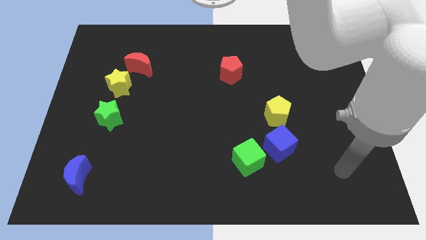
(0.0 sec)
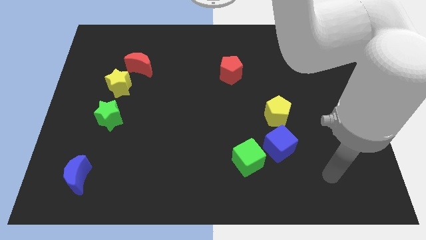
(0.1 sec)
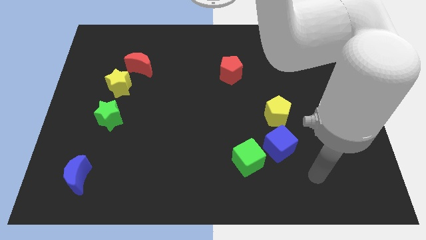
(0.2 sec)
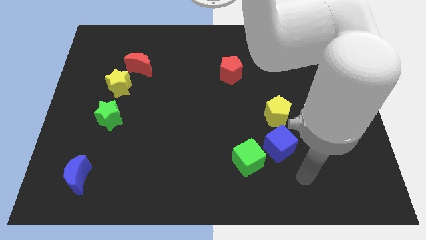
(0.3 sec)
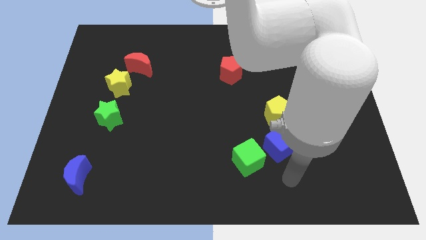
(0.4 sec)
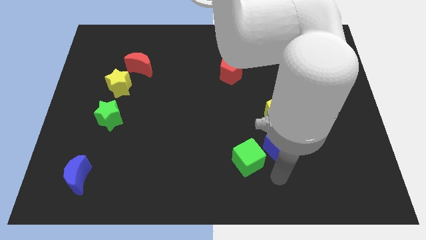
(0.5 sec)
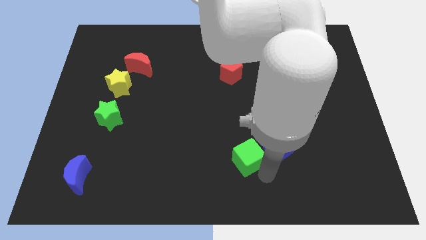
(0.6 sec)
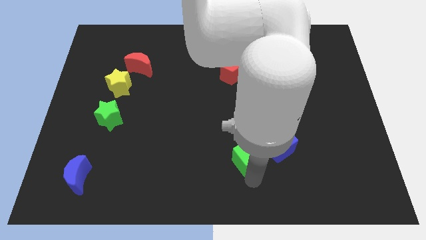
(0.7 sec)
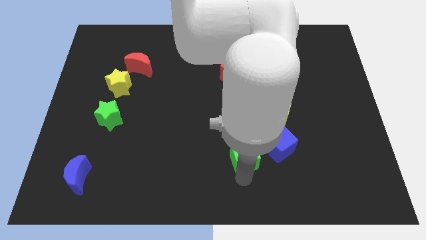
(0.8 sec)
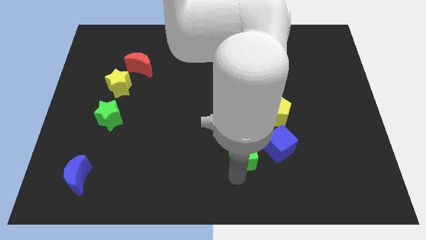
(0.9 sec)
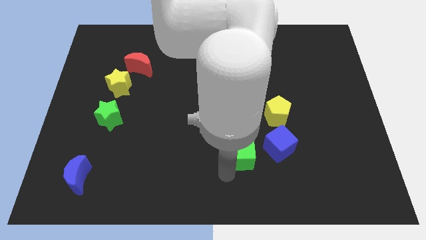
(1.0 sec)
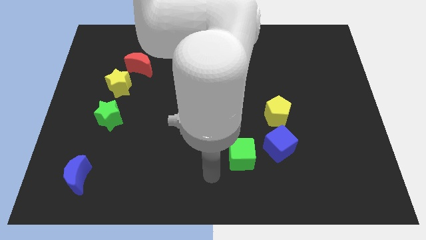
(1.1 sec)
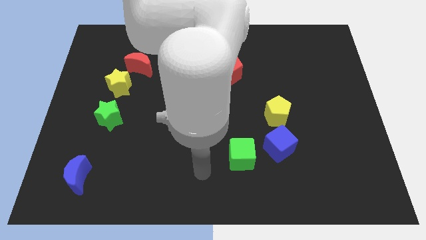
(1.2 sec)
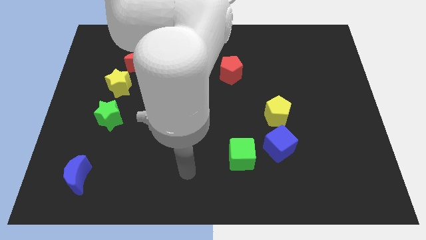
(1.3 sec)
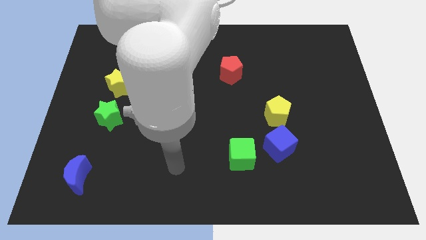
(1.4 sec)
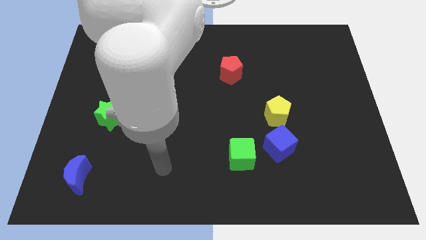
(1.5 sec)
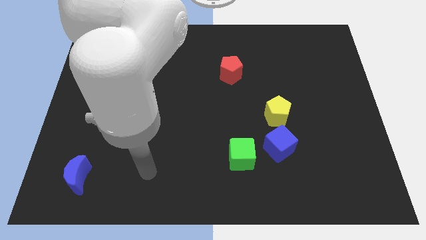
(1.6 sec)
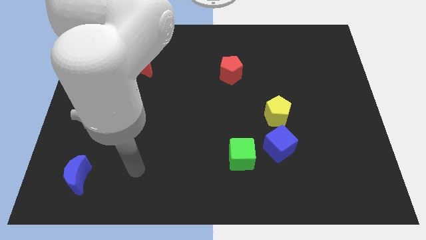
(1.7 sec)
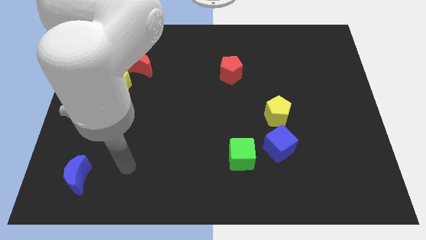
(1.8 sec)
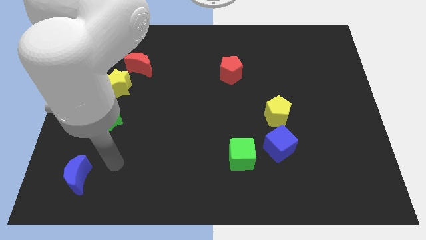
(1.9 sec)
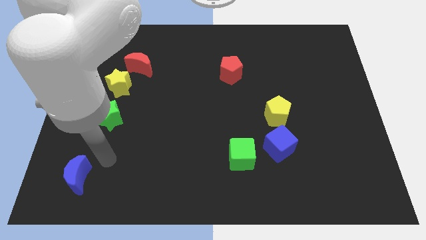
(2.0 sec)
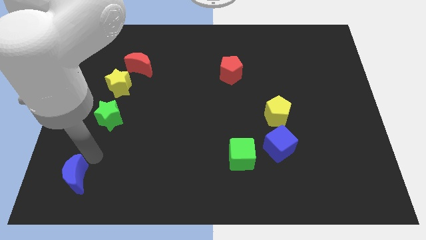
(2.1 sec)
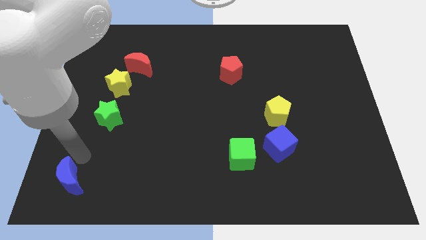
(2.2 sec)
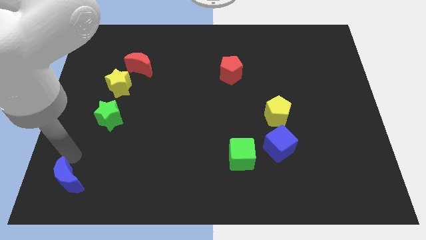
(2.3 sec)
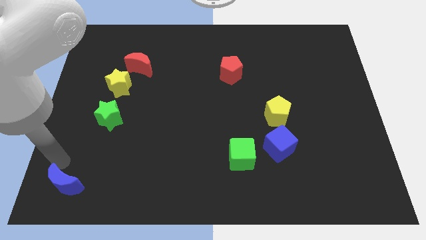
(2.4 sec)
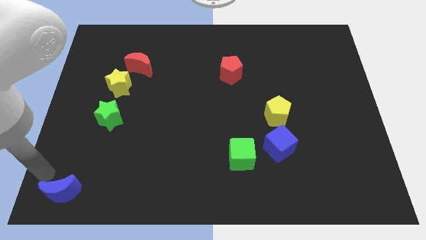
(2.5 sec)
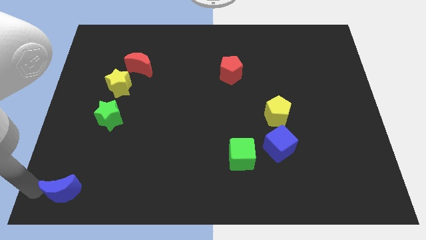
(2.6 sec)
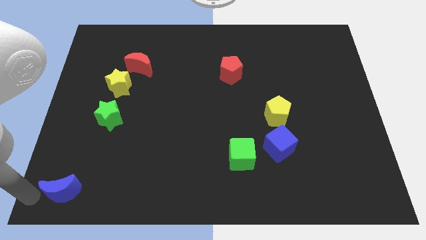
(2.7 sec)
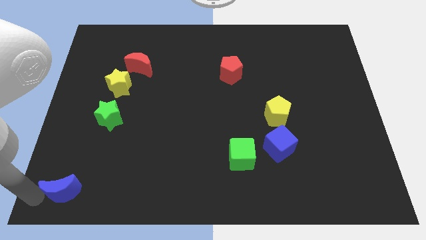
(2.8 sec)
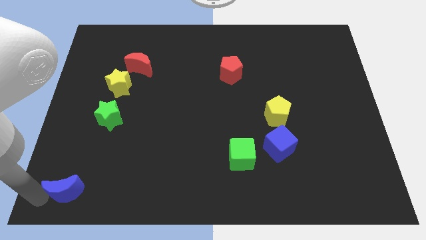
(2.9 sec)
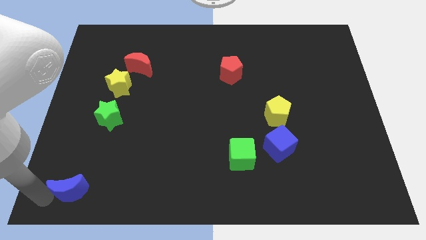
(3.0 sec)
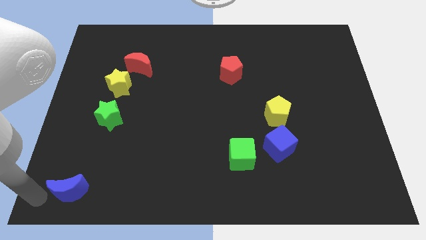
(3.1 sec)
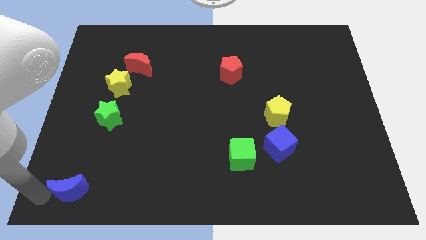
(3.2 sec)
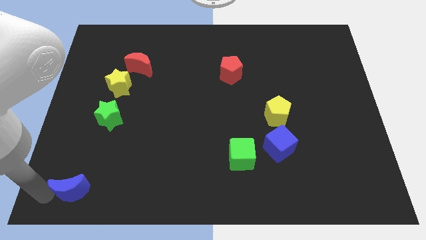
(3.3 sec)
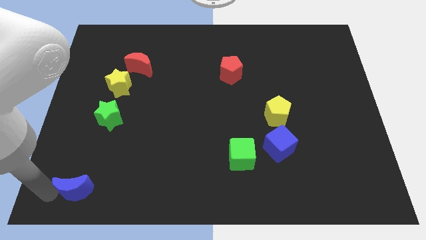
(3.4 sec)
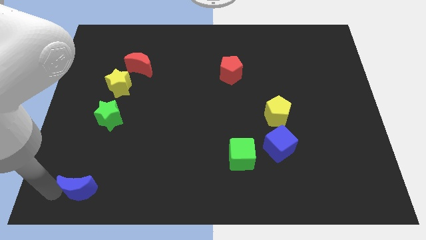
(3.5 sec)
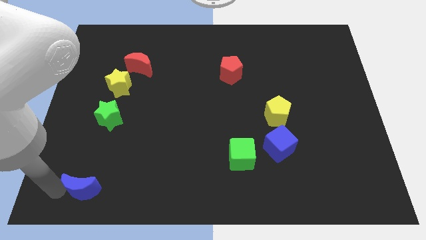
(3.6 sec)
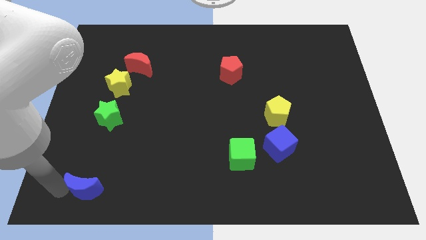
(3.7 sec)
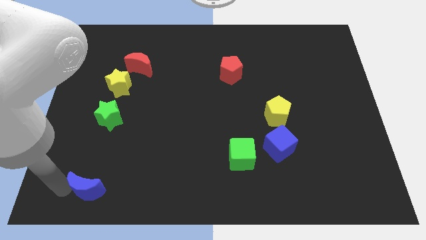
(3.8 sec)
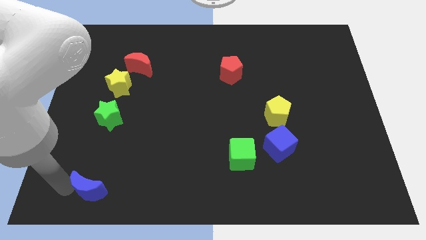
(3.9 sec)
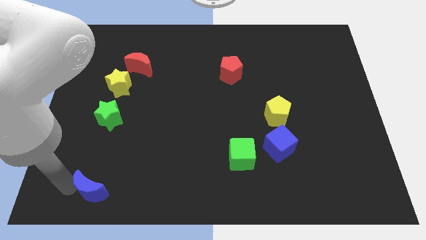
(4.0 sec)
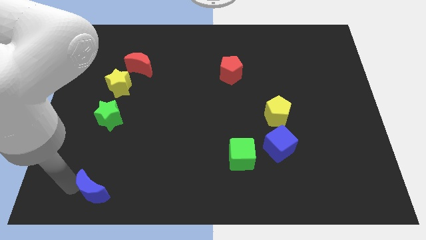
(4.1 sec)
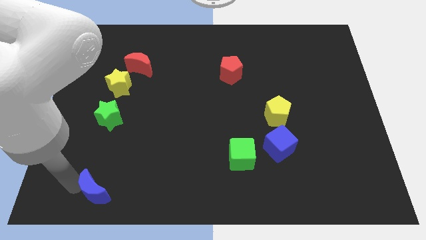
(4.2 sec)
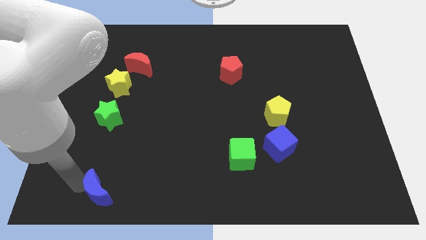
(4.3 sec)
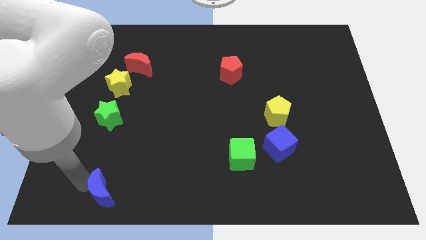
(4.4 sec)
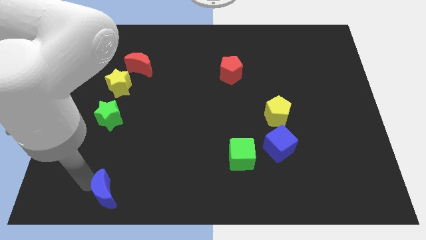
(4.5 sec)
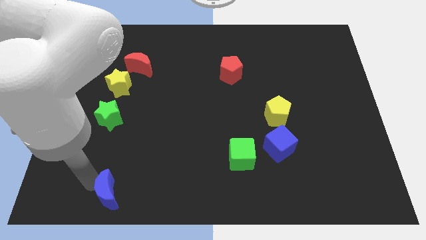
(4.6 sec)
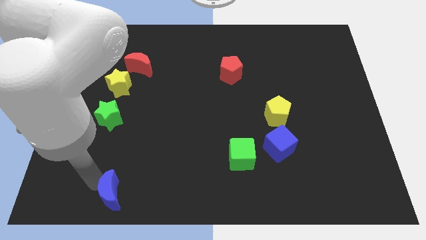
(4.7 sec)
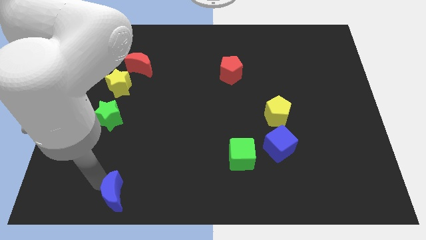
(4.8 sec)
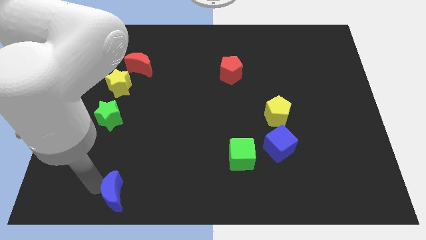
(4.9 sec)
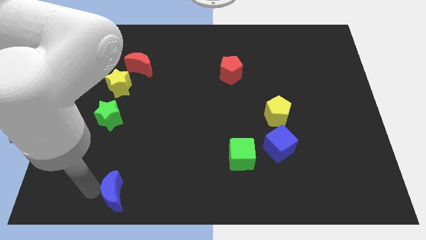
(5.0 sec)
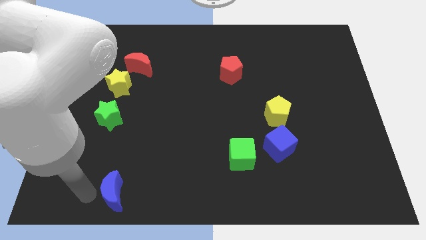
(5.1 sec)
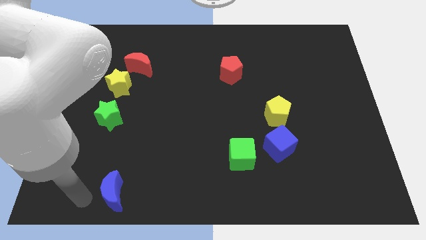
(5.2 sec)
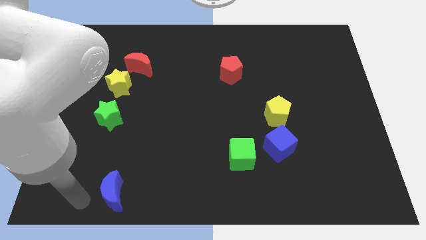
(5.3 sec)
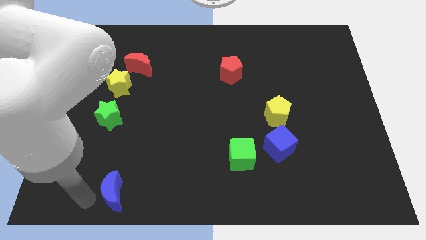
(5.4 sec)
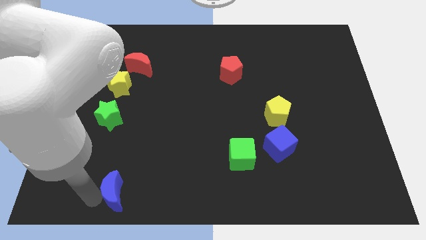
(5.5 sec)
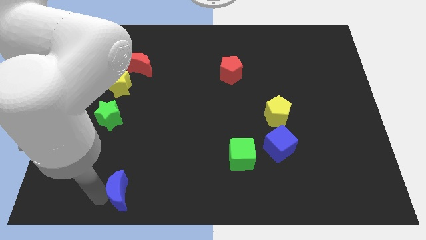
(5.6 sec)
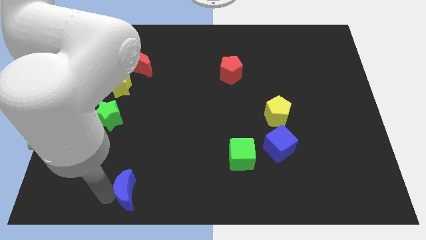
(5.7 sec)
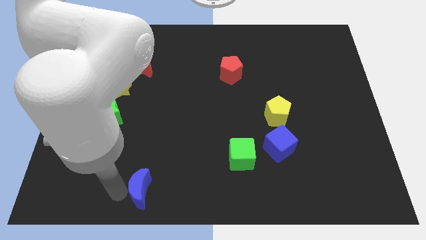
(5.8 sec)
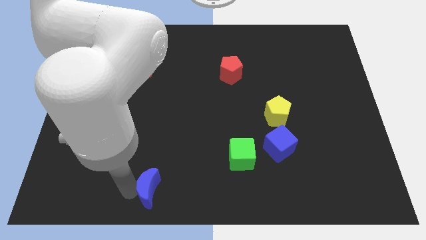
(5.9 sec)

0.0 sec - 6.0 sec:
put the blue moon to the bottom side
